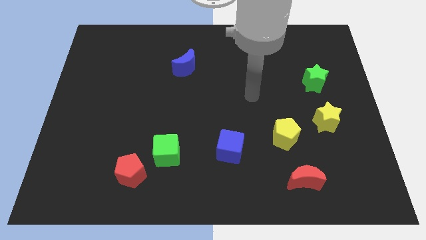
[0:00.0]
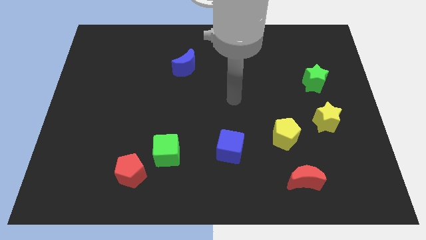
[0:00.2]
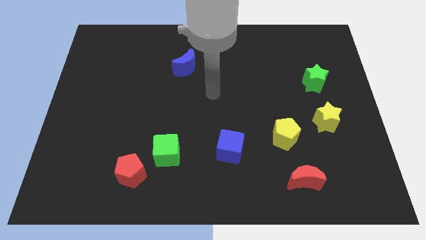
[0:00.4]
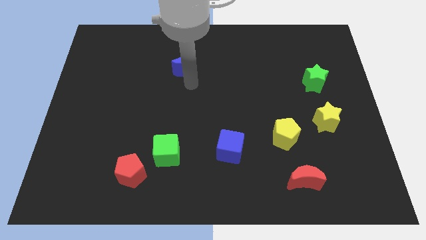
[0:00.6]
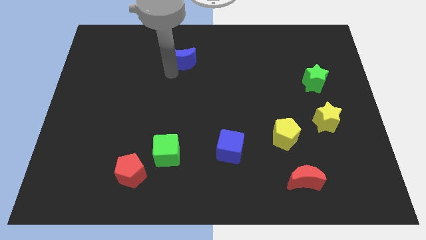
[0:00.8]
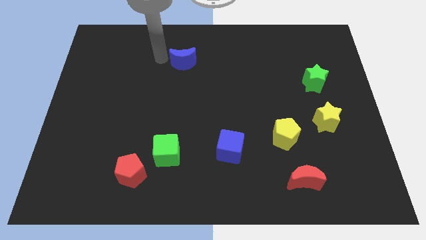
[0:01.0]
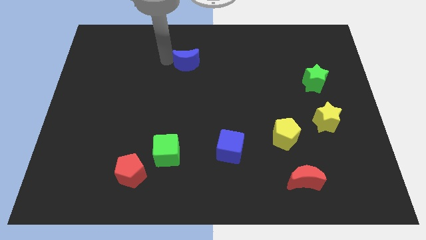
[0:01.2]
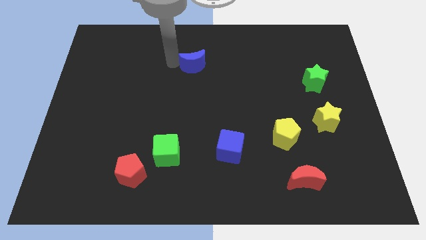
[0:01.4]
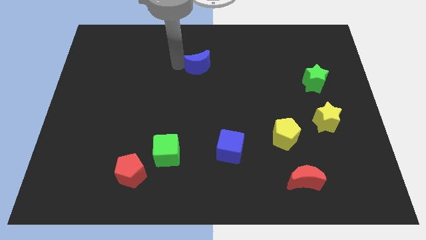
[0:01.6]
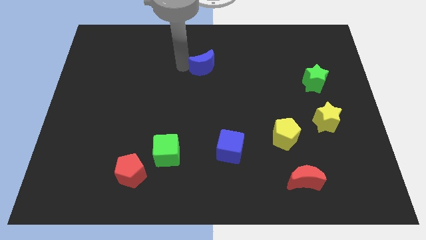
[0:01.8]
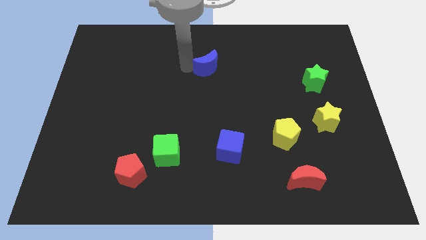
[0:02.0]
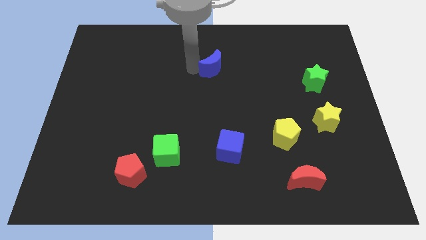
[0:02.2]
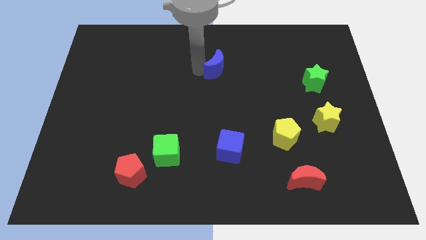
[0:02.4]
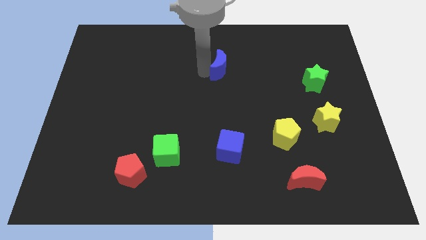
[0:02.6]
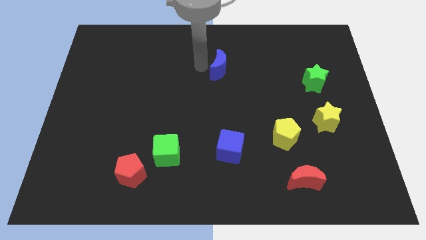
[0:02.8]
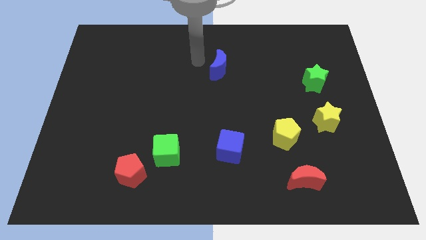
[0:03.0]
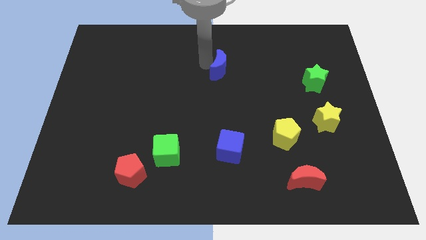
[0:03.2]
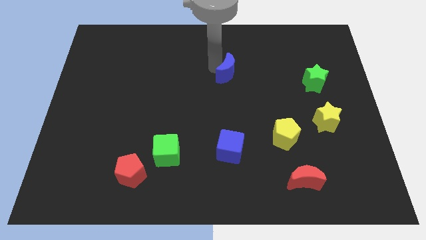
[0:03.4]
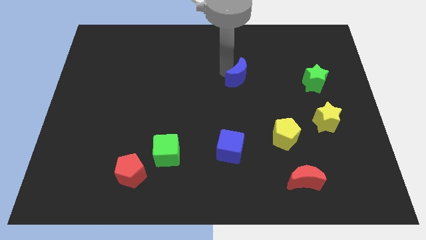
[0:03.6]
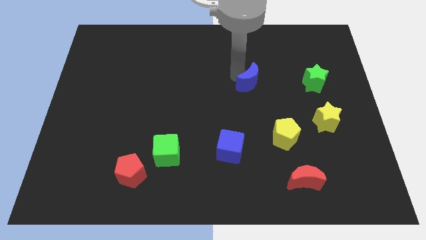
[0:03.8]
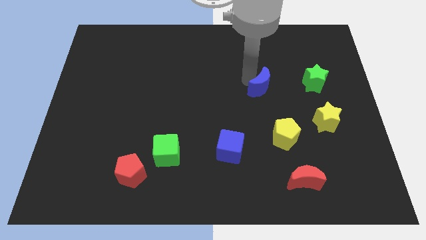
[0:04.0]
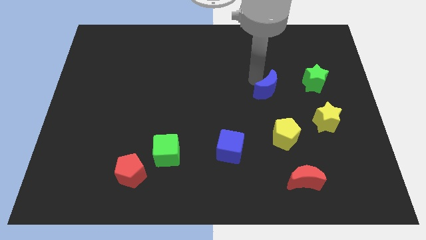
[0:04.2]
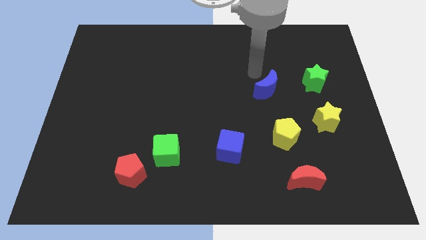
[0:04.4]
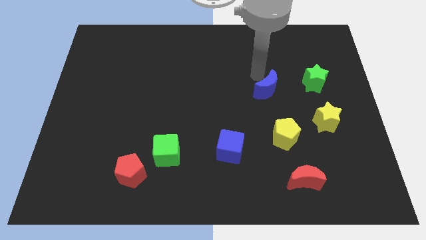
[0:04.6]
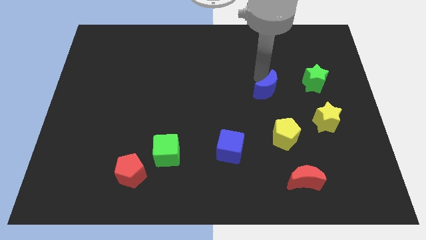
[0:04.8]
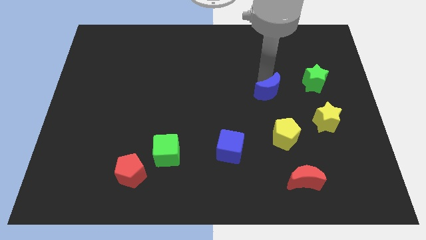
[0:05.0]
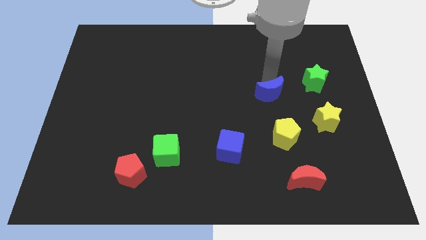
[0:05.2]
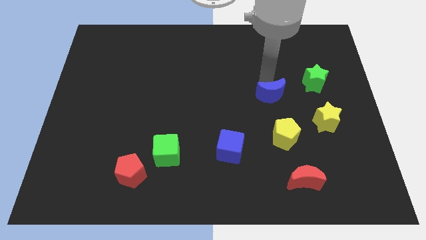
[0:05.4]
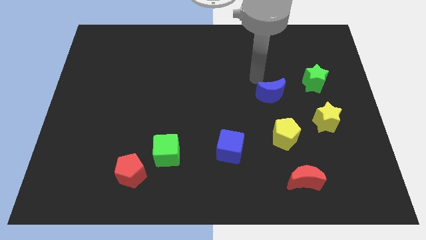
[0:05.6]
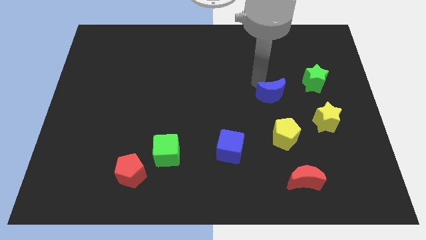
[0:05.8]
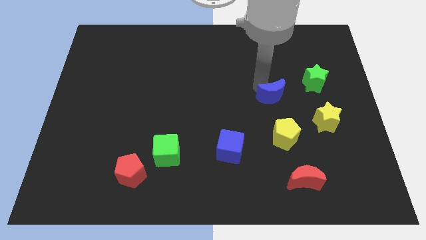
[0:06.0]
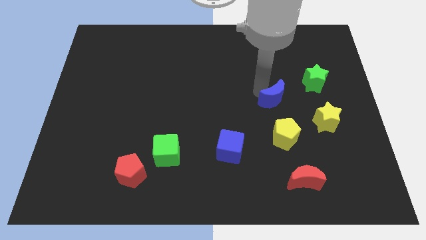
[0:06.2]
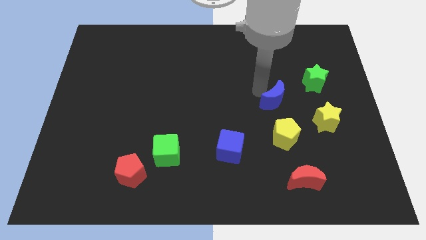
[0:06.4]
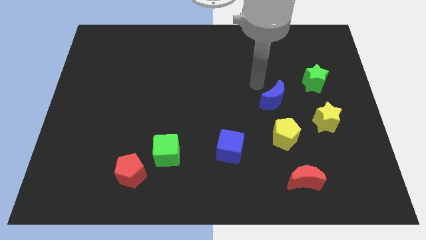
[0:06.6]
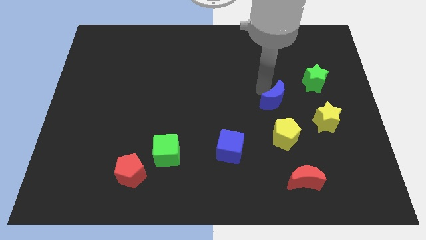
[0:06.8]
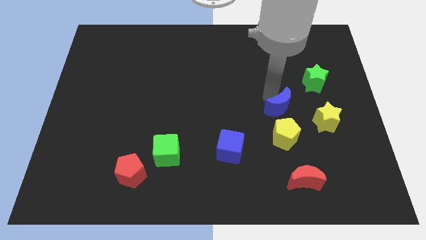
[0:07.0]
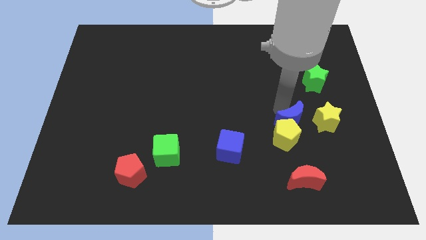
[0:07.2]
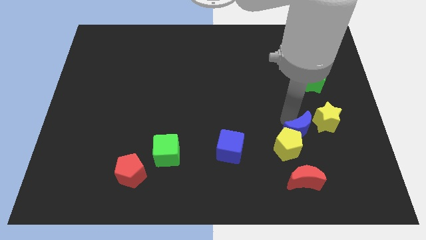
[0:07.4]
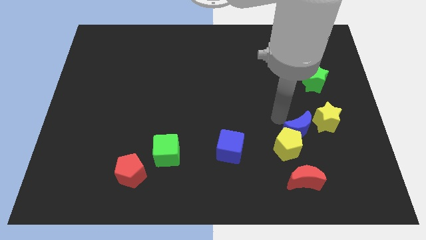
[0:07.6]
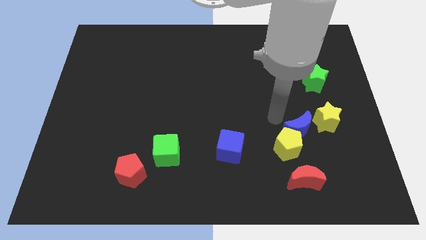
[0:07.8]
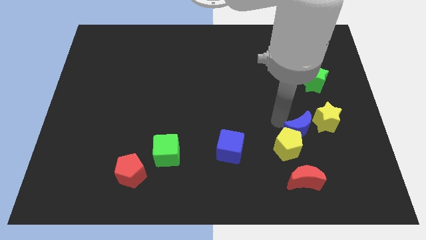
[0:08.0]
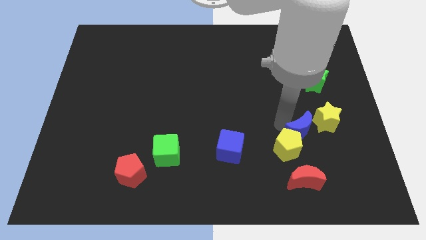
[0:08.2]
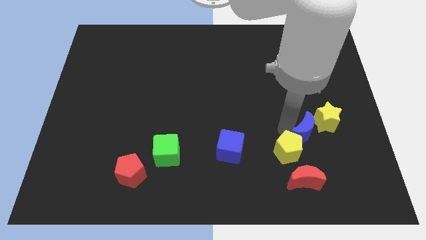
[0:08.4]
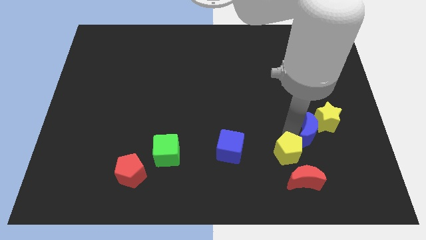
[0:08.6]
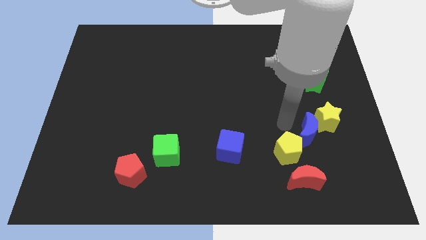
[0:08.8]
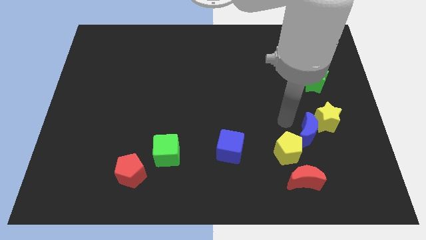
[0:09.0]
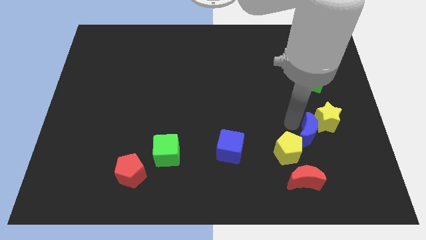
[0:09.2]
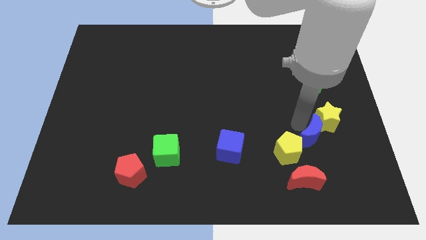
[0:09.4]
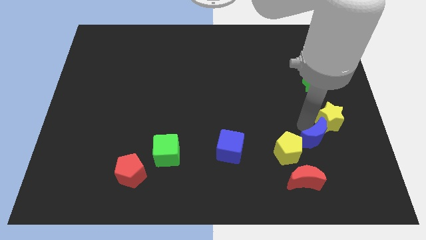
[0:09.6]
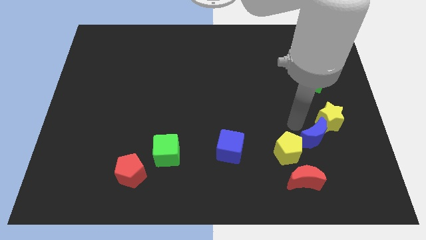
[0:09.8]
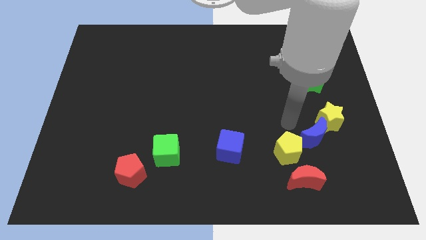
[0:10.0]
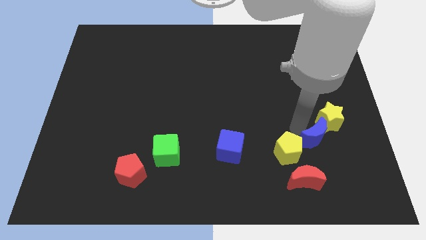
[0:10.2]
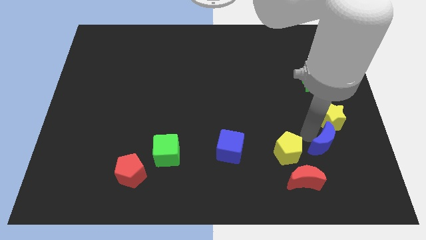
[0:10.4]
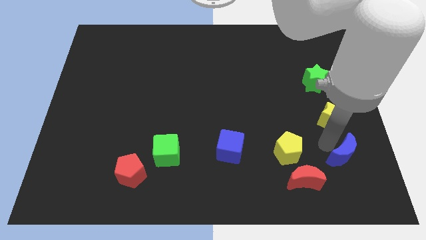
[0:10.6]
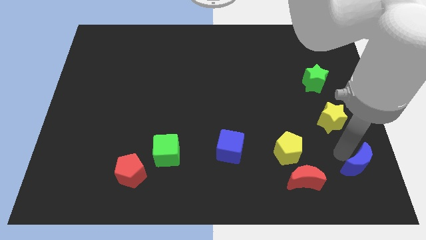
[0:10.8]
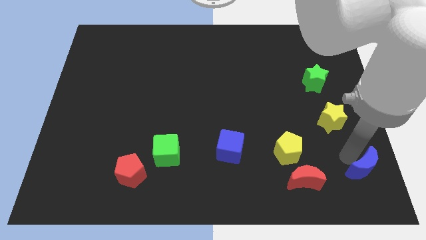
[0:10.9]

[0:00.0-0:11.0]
put the blue moon to the bottom right corner
